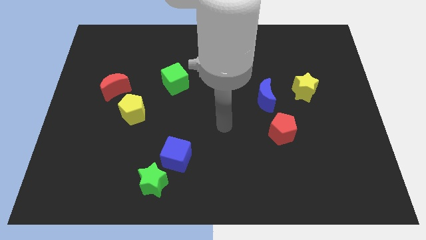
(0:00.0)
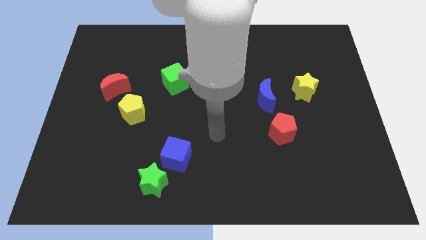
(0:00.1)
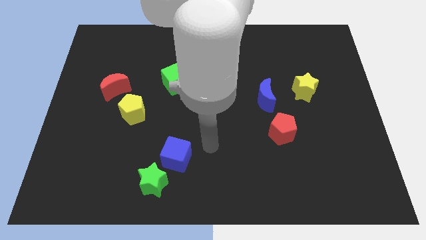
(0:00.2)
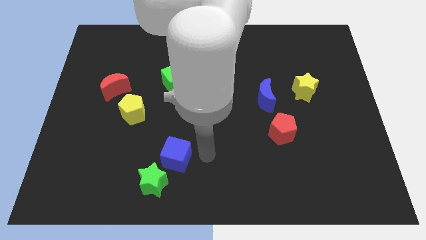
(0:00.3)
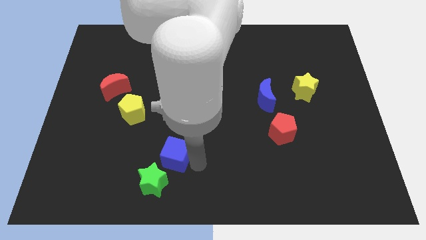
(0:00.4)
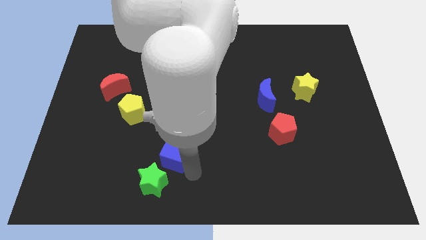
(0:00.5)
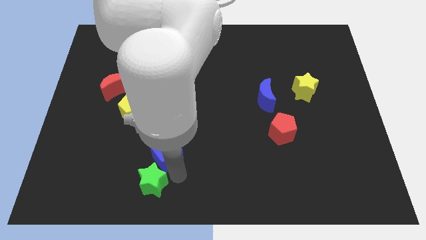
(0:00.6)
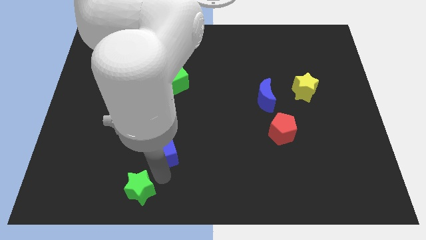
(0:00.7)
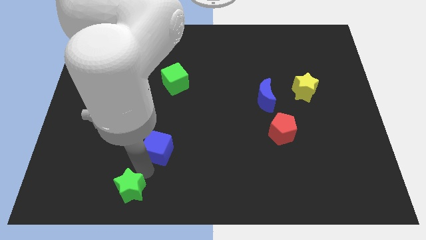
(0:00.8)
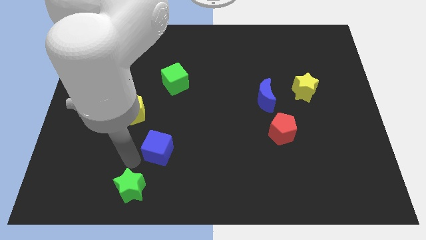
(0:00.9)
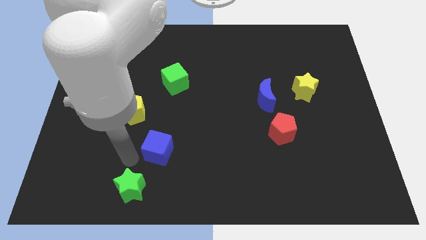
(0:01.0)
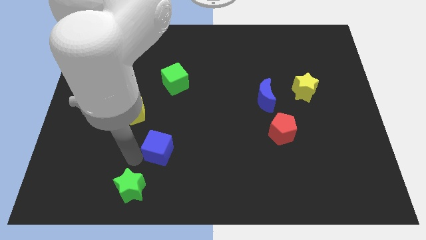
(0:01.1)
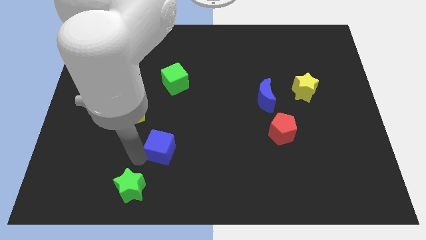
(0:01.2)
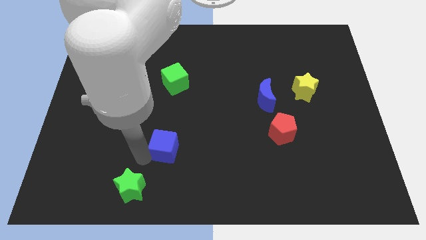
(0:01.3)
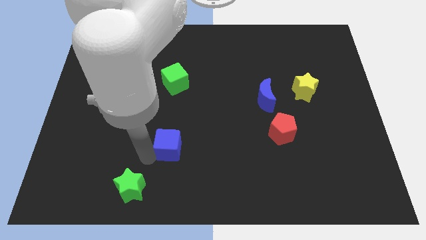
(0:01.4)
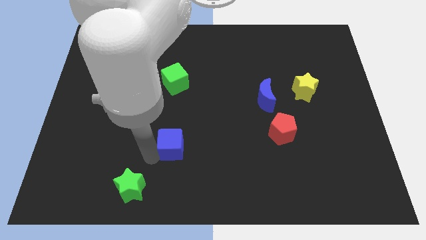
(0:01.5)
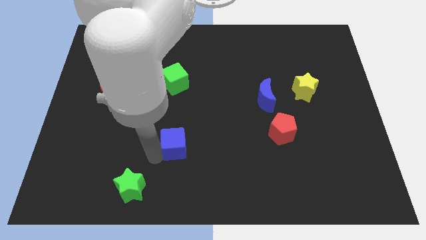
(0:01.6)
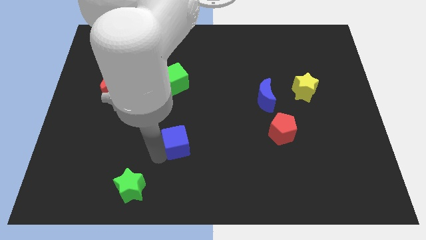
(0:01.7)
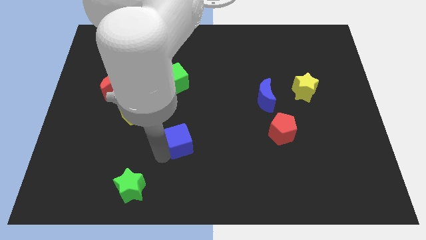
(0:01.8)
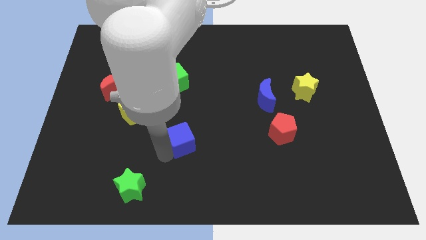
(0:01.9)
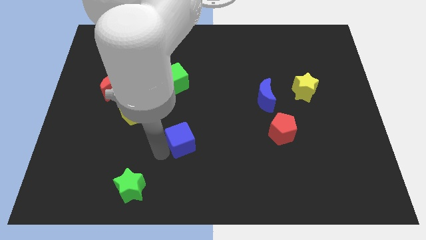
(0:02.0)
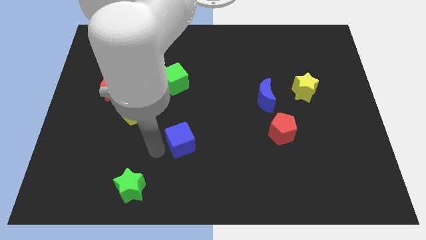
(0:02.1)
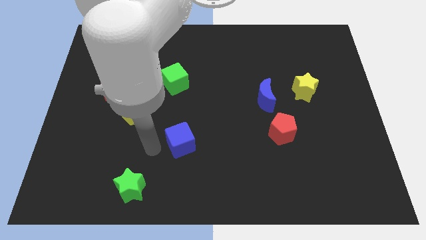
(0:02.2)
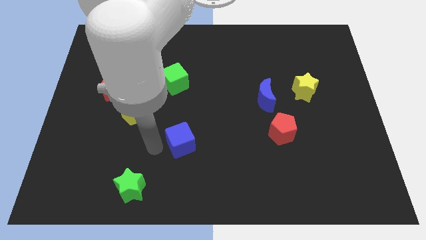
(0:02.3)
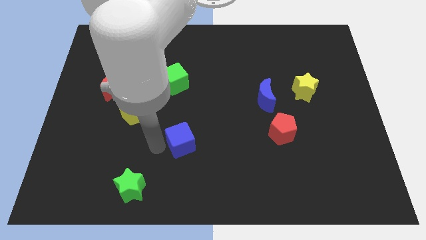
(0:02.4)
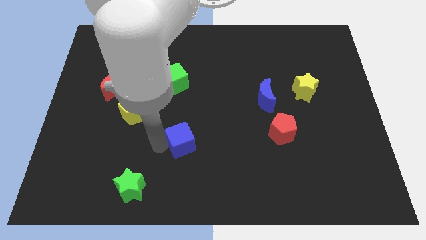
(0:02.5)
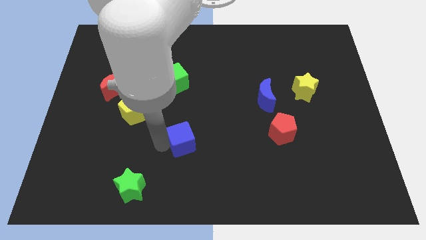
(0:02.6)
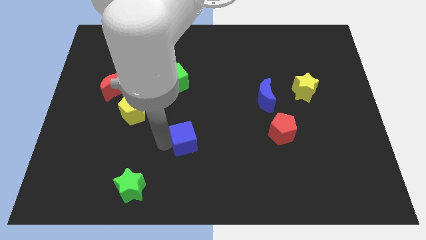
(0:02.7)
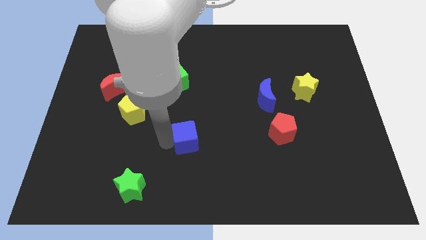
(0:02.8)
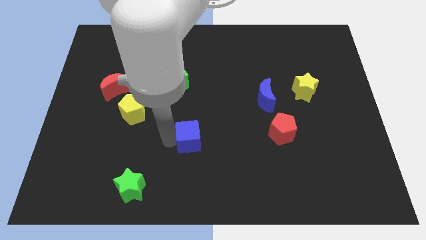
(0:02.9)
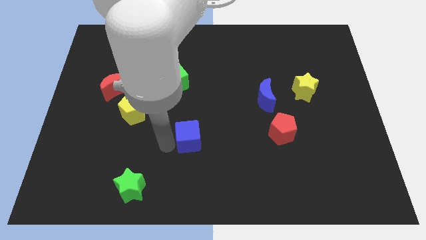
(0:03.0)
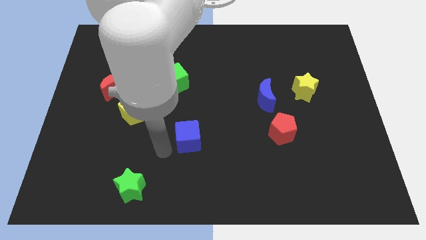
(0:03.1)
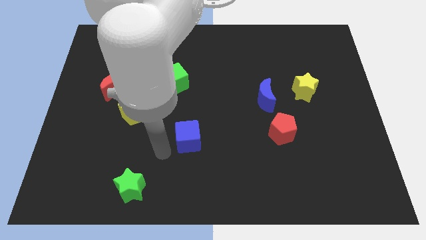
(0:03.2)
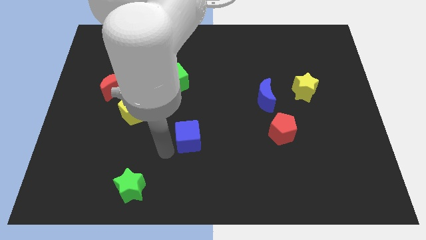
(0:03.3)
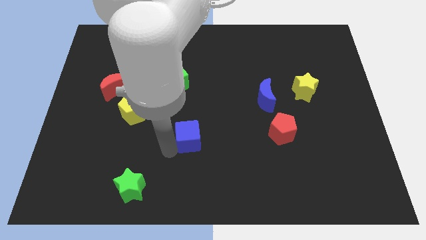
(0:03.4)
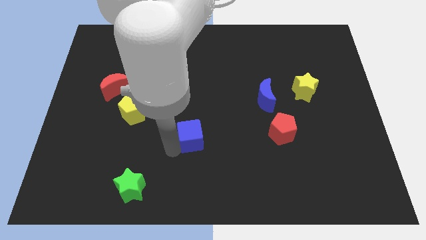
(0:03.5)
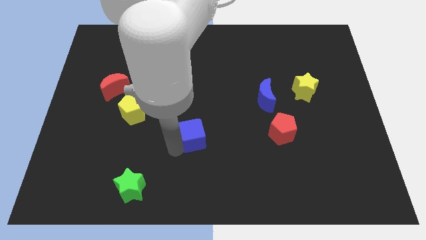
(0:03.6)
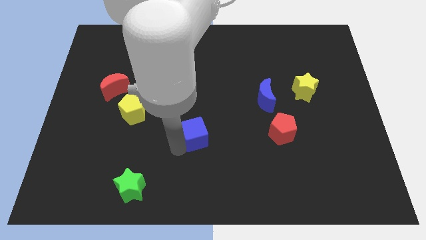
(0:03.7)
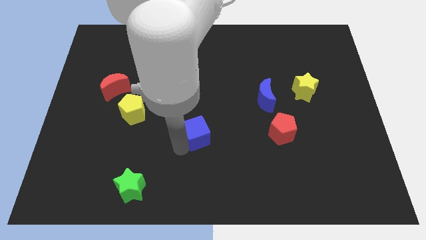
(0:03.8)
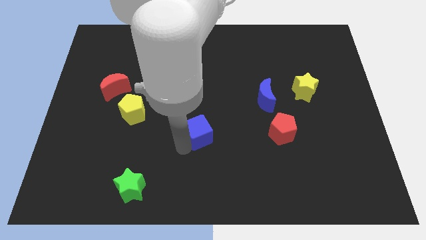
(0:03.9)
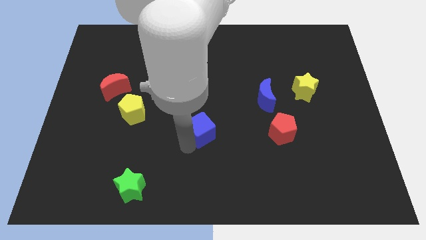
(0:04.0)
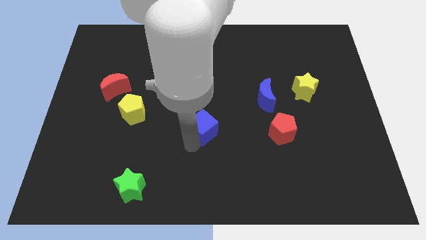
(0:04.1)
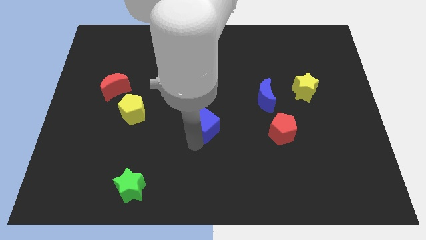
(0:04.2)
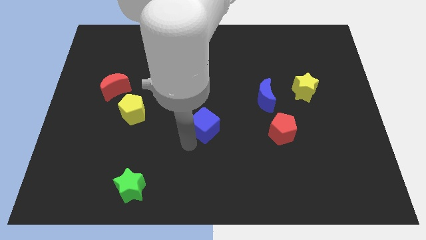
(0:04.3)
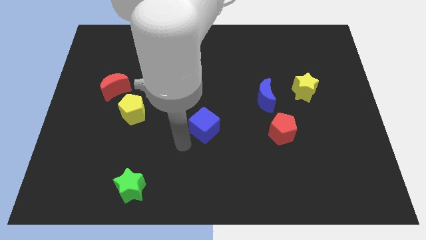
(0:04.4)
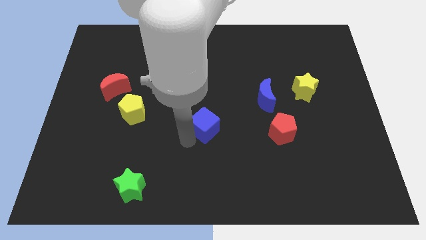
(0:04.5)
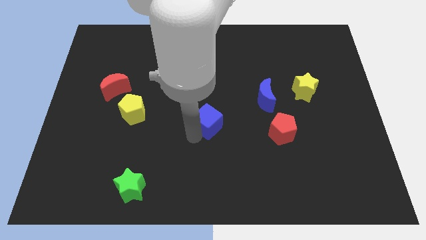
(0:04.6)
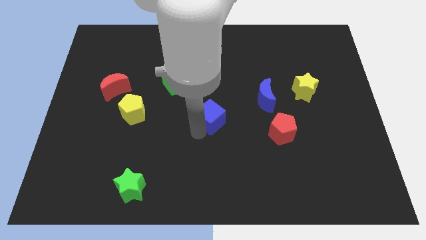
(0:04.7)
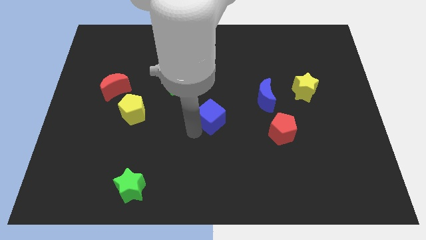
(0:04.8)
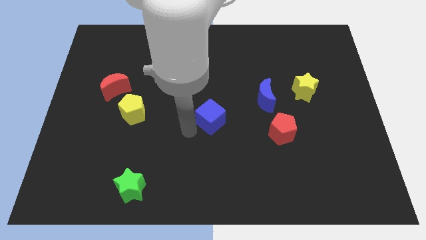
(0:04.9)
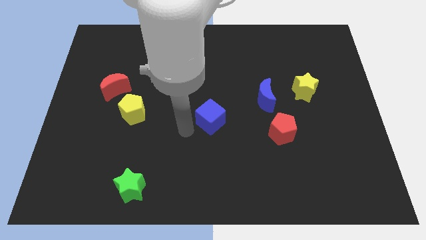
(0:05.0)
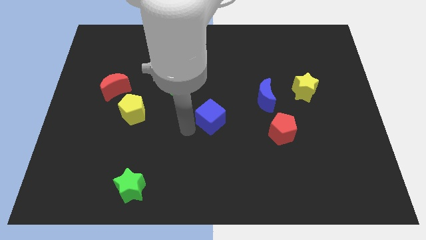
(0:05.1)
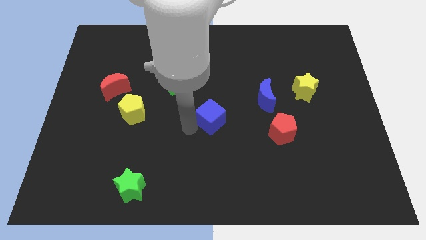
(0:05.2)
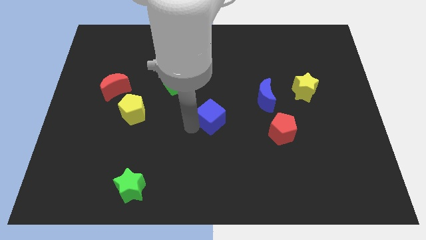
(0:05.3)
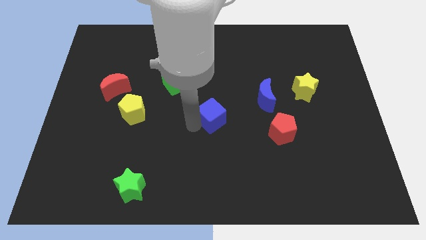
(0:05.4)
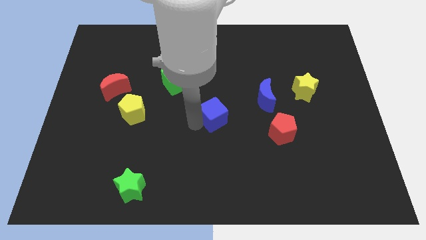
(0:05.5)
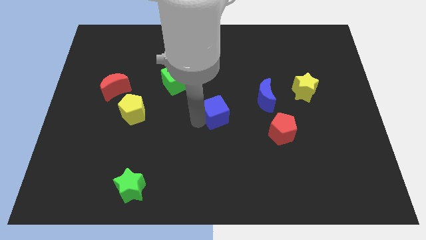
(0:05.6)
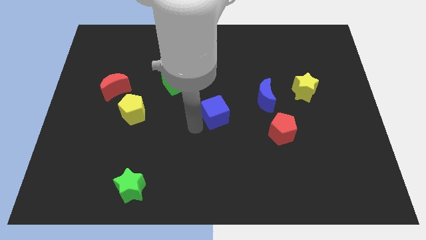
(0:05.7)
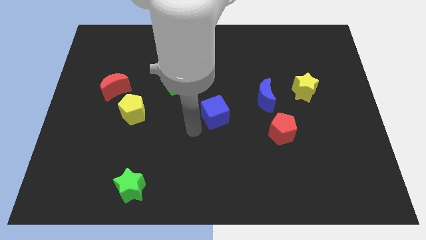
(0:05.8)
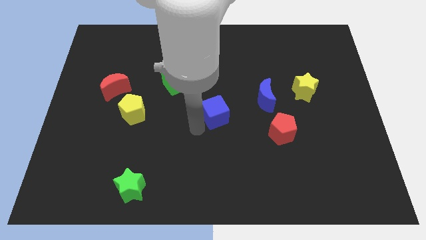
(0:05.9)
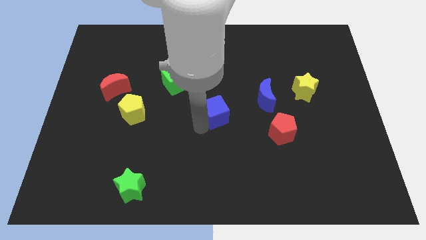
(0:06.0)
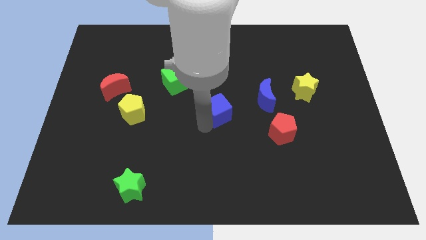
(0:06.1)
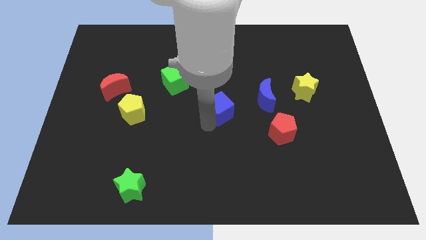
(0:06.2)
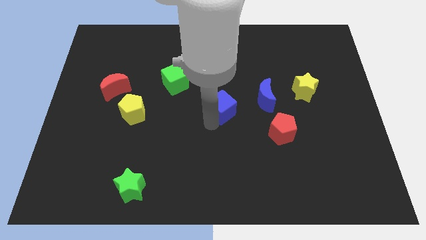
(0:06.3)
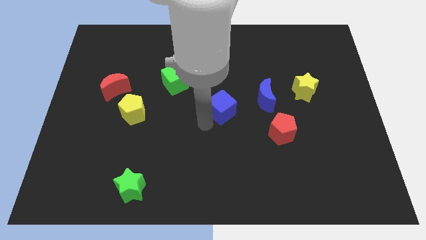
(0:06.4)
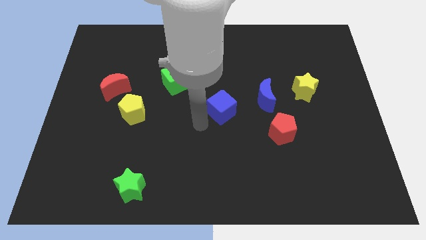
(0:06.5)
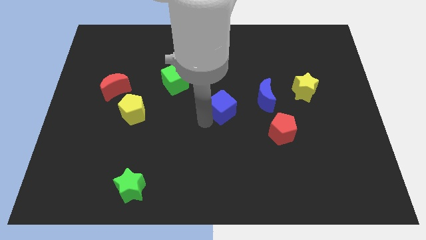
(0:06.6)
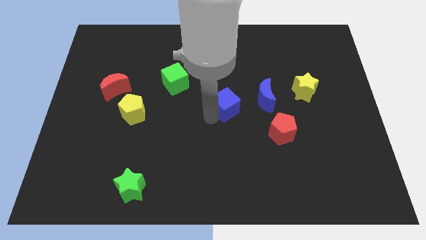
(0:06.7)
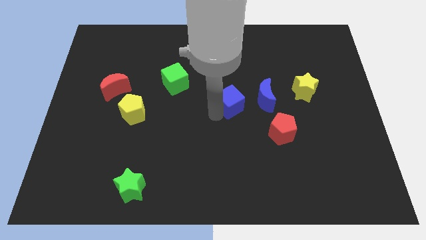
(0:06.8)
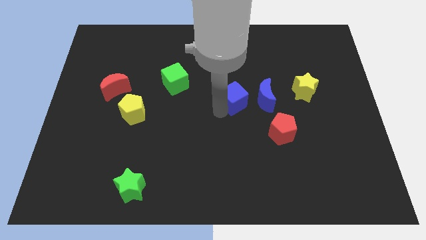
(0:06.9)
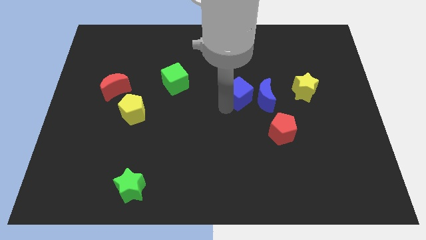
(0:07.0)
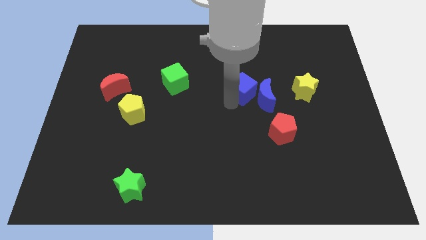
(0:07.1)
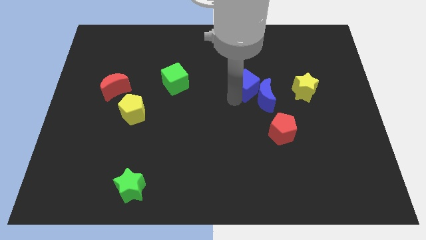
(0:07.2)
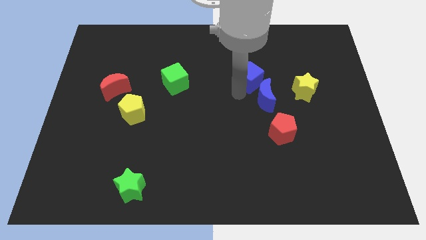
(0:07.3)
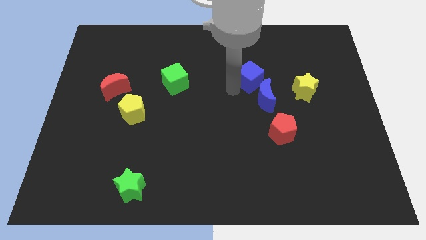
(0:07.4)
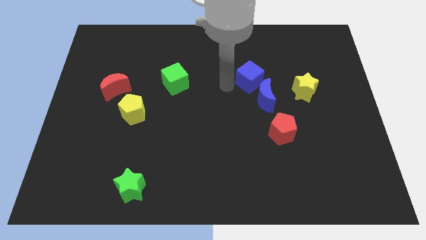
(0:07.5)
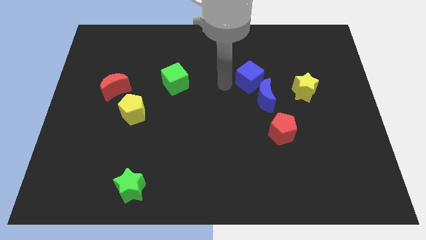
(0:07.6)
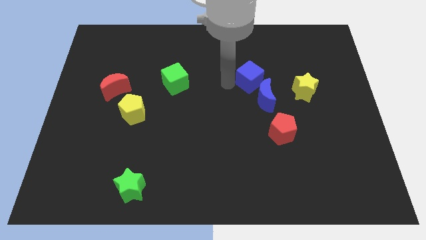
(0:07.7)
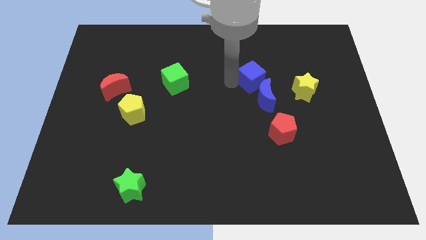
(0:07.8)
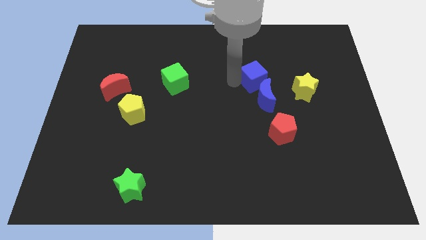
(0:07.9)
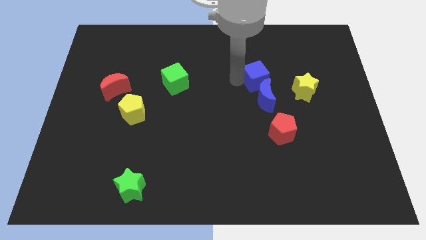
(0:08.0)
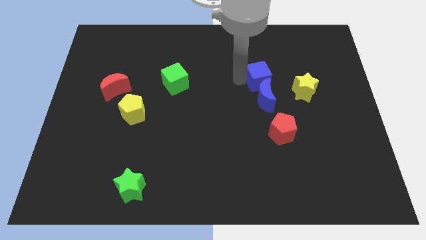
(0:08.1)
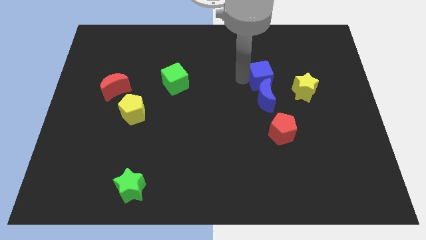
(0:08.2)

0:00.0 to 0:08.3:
move the blue cube to the top left side of the yellow star
